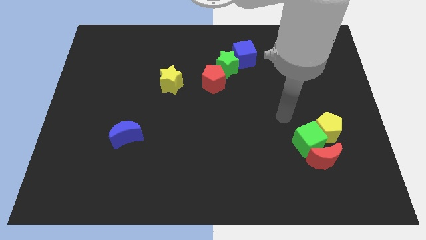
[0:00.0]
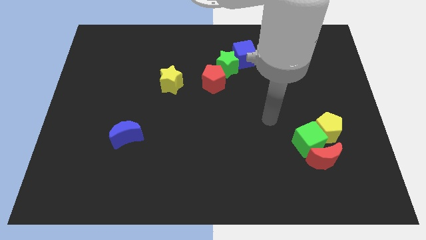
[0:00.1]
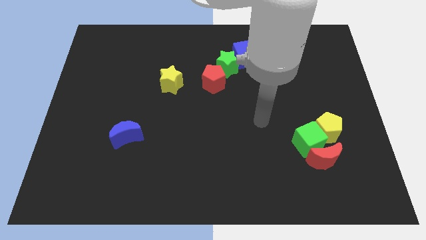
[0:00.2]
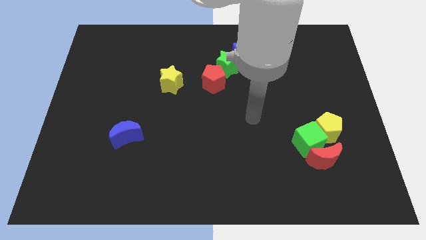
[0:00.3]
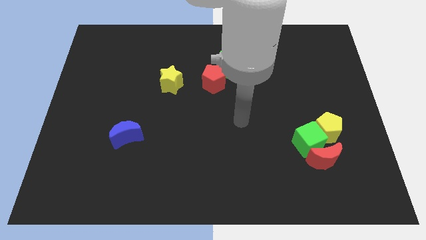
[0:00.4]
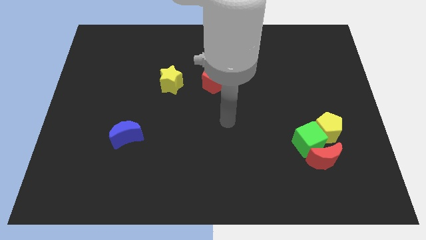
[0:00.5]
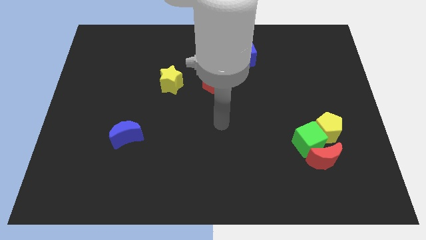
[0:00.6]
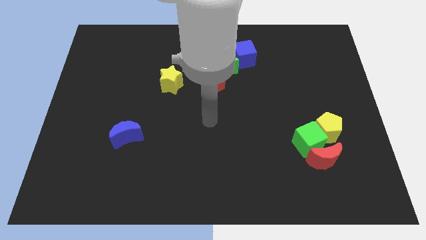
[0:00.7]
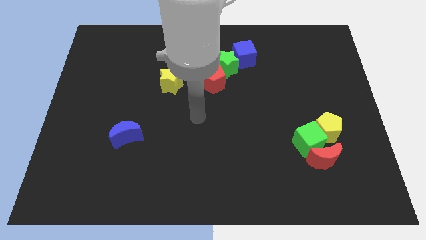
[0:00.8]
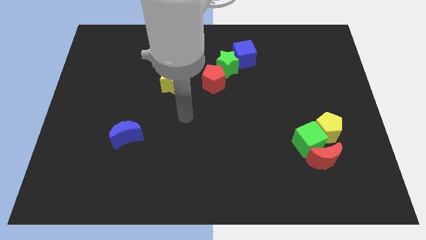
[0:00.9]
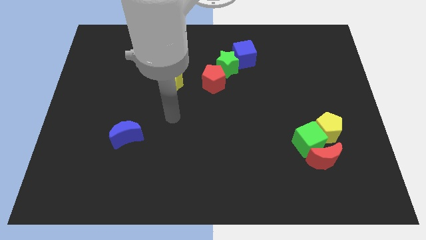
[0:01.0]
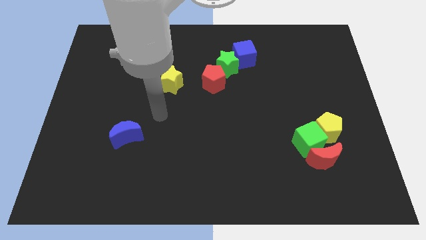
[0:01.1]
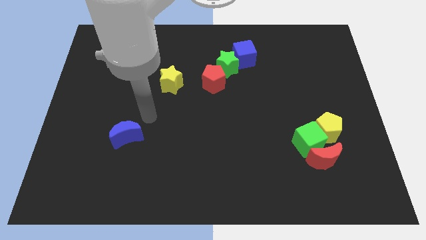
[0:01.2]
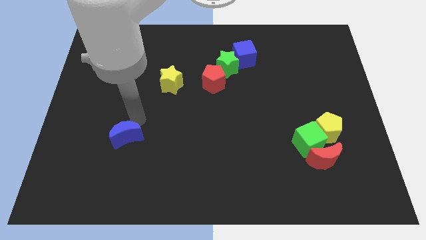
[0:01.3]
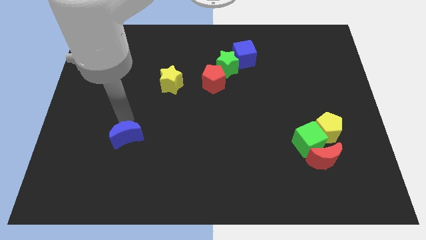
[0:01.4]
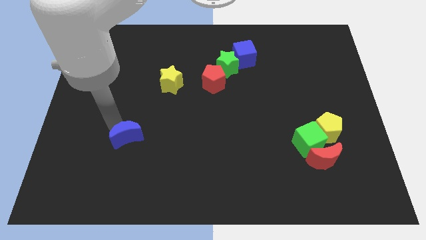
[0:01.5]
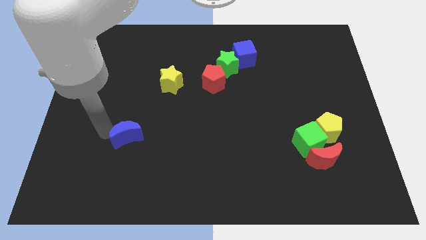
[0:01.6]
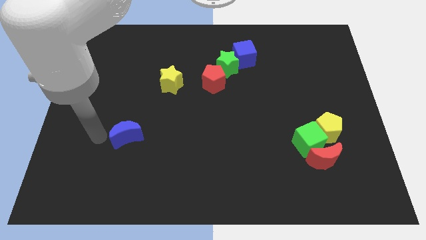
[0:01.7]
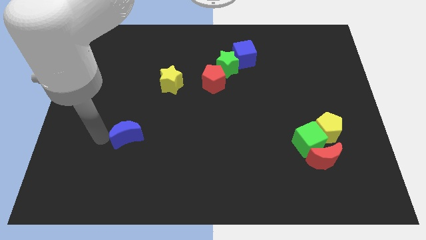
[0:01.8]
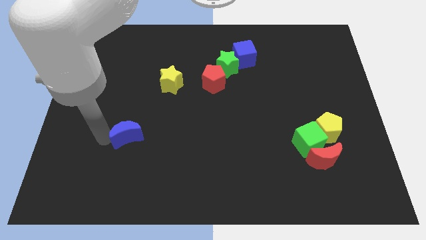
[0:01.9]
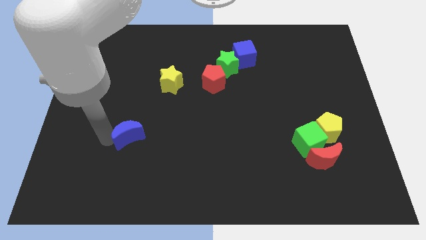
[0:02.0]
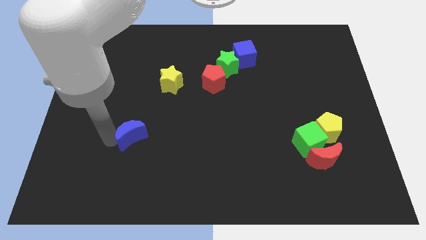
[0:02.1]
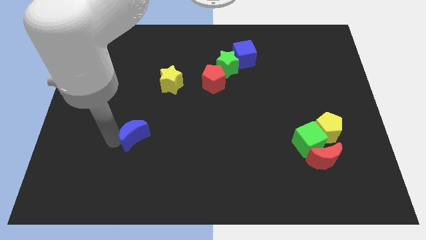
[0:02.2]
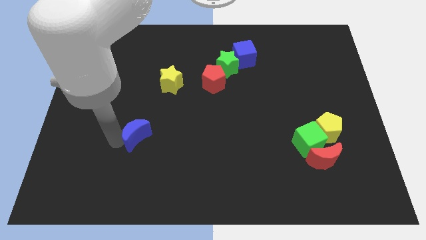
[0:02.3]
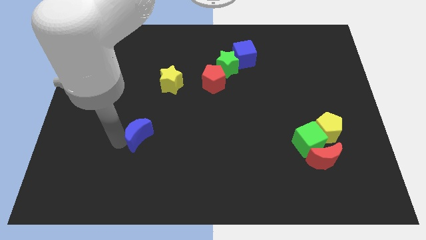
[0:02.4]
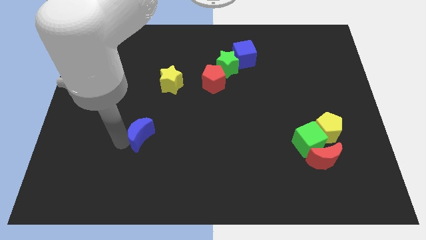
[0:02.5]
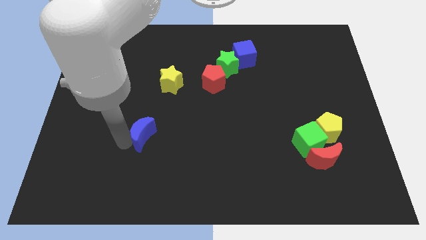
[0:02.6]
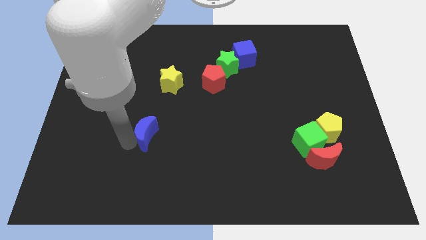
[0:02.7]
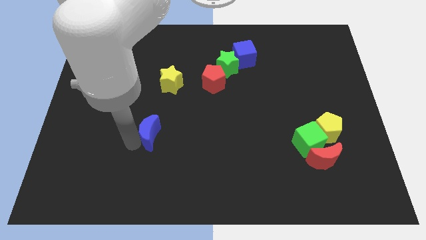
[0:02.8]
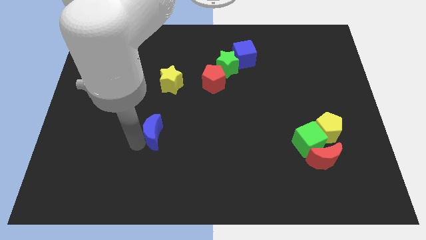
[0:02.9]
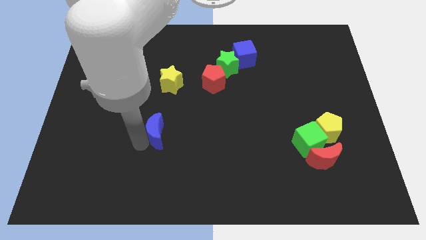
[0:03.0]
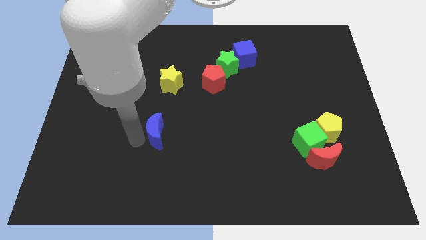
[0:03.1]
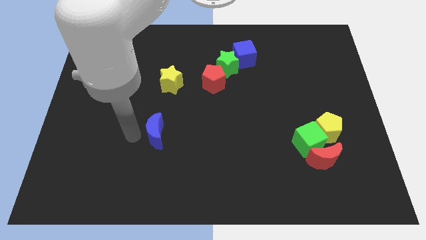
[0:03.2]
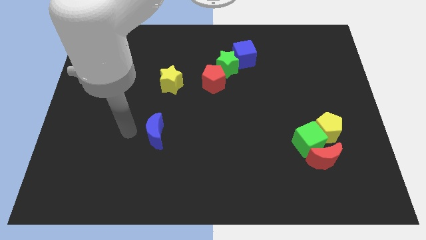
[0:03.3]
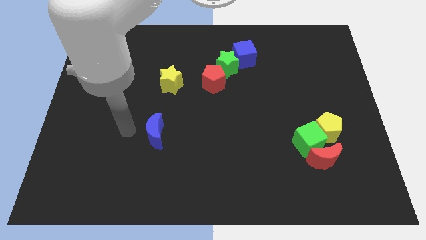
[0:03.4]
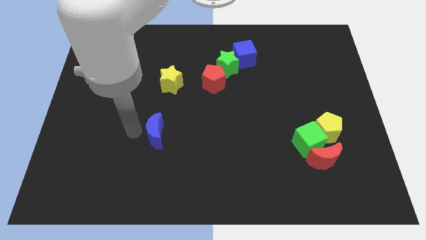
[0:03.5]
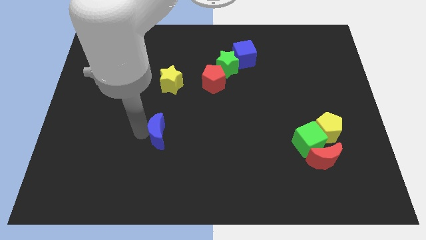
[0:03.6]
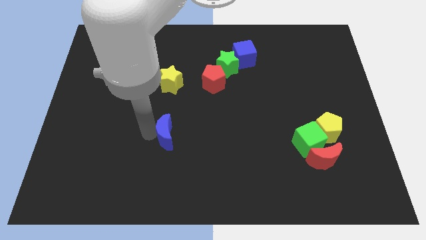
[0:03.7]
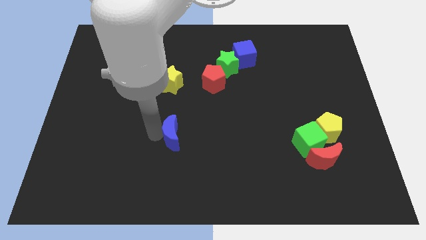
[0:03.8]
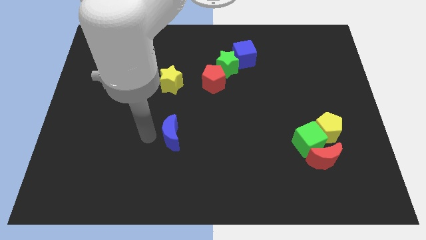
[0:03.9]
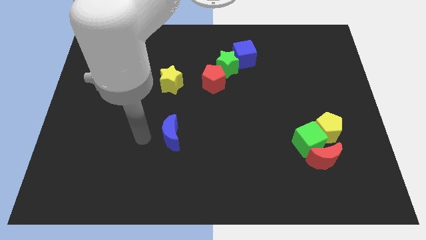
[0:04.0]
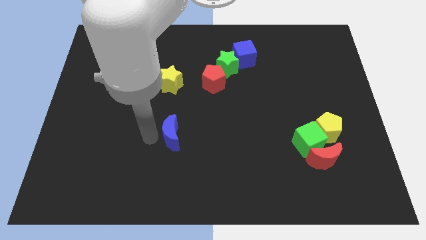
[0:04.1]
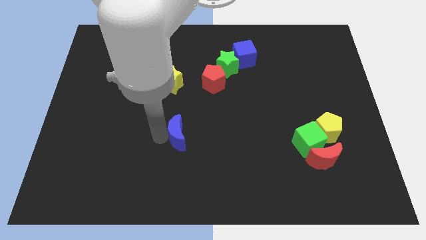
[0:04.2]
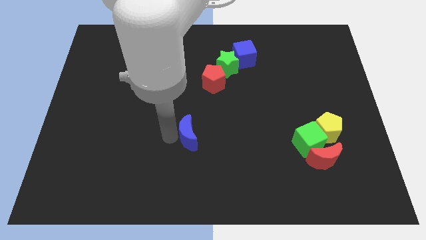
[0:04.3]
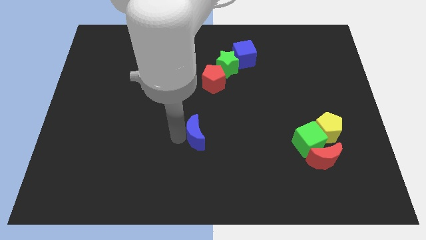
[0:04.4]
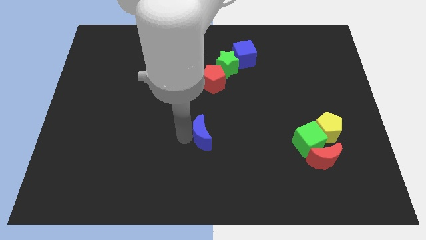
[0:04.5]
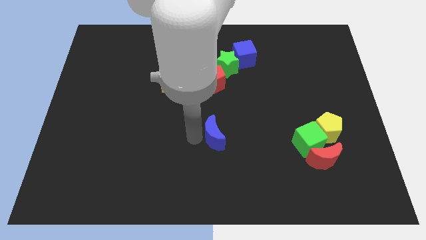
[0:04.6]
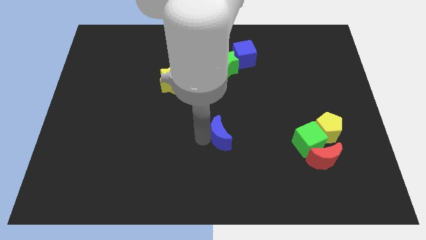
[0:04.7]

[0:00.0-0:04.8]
move the blue moon right

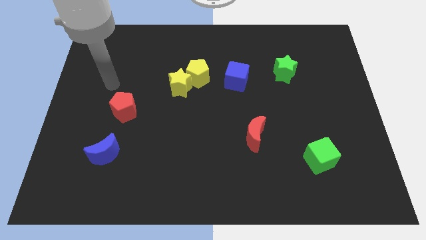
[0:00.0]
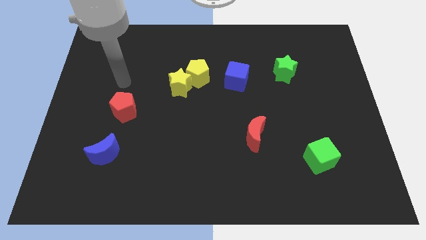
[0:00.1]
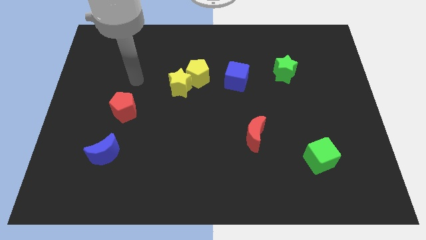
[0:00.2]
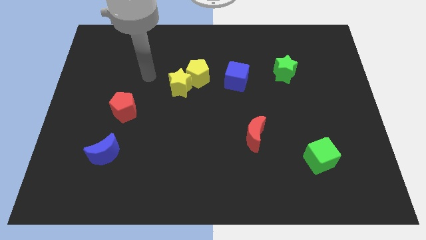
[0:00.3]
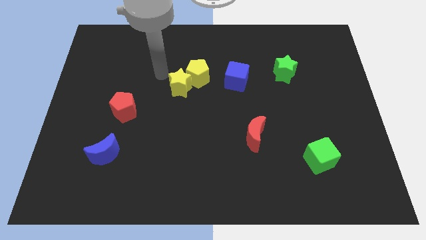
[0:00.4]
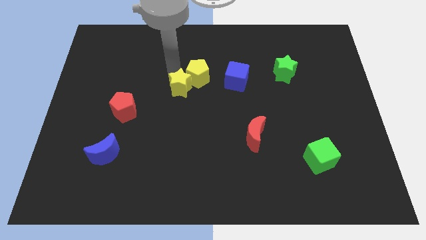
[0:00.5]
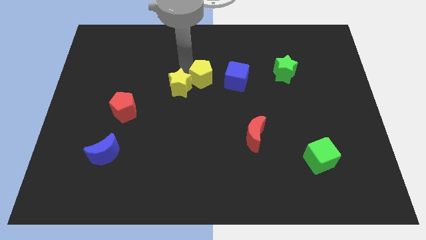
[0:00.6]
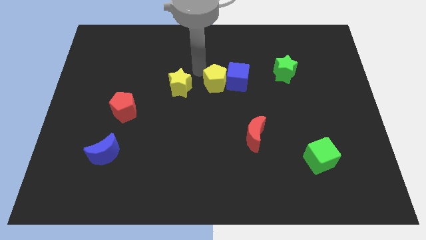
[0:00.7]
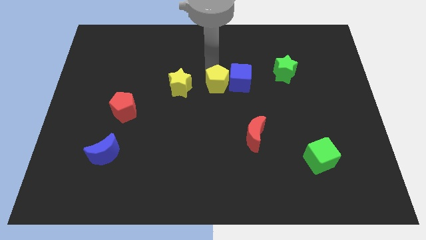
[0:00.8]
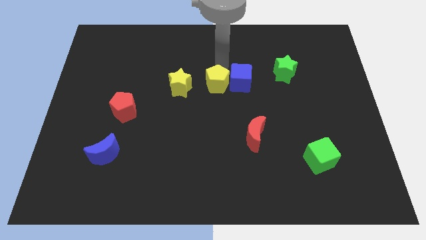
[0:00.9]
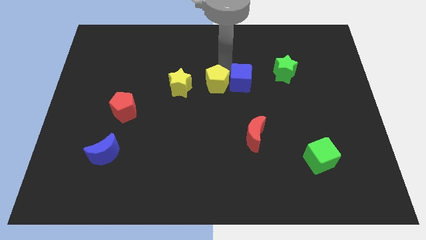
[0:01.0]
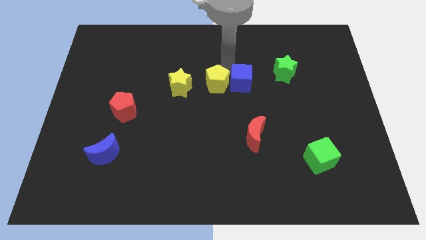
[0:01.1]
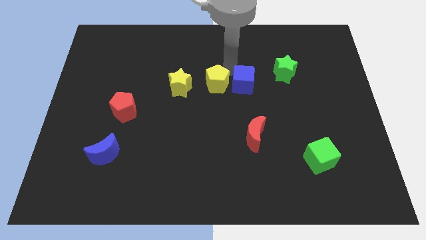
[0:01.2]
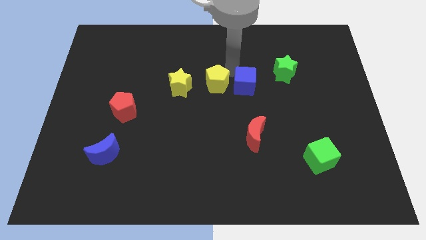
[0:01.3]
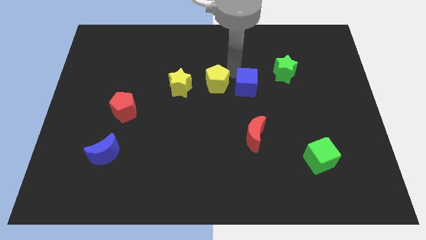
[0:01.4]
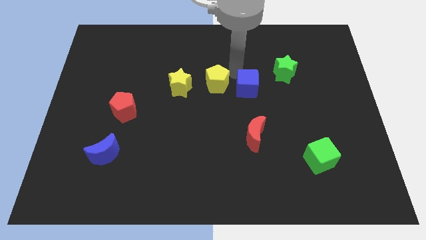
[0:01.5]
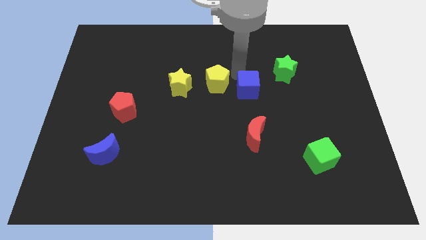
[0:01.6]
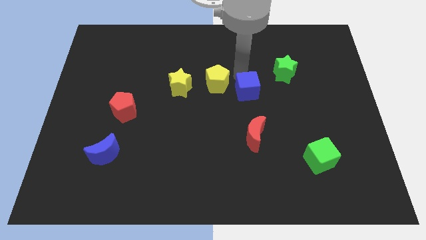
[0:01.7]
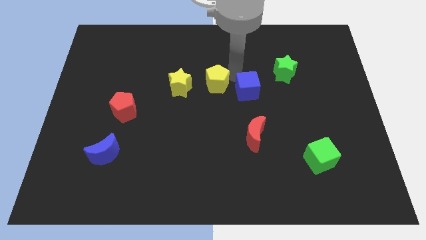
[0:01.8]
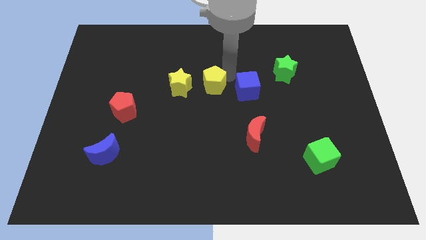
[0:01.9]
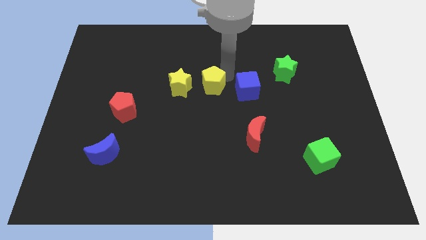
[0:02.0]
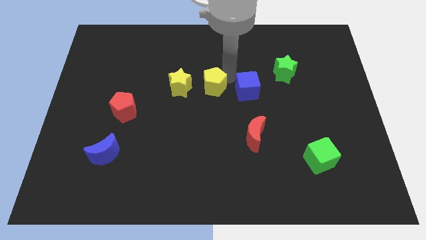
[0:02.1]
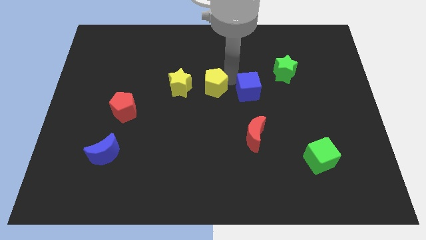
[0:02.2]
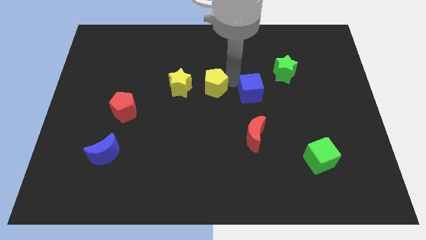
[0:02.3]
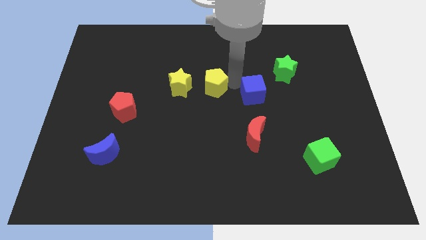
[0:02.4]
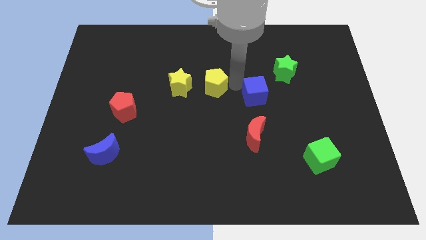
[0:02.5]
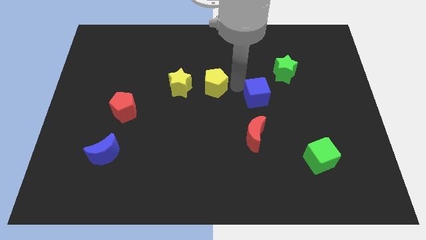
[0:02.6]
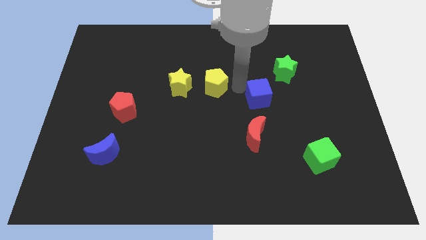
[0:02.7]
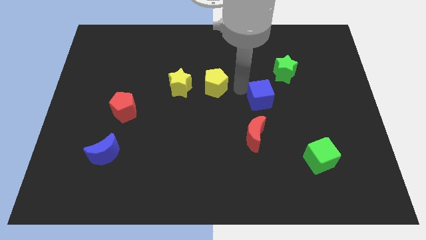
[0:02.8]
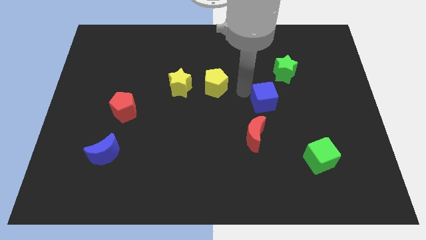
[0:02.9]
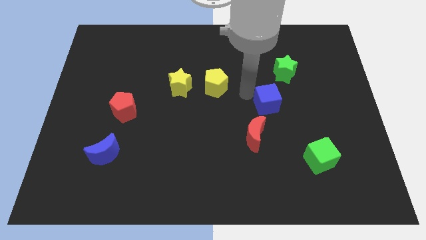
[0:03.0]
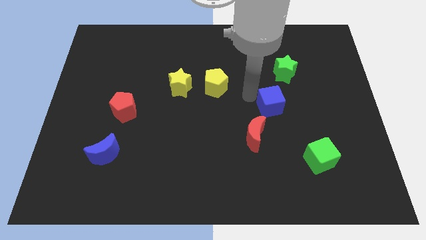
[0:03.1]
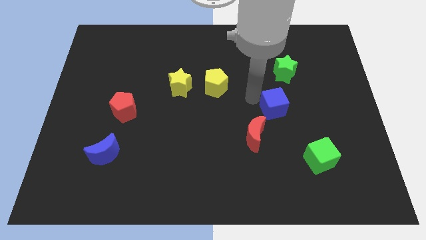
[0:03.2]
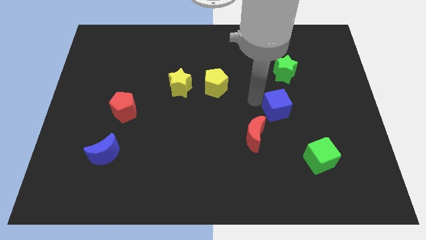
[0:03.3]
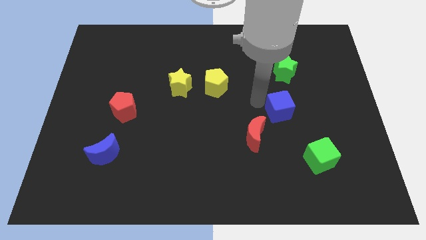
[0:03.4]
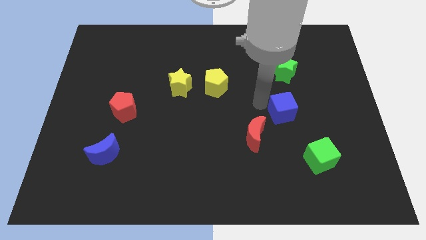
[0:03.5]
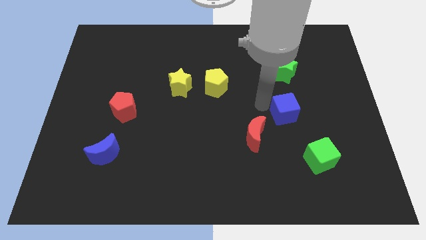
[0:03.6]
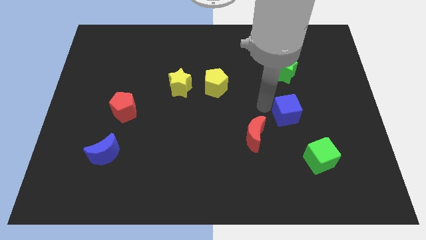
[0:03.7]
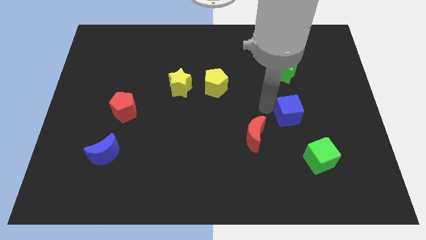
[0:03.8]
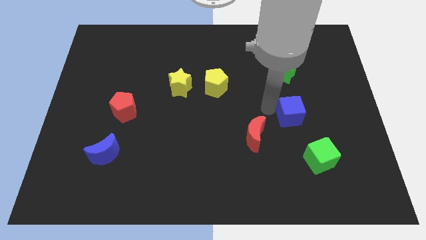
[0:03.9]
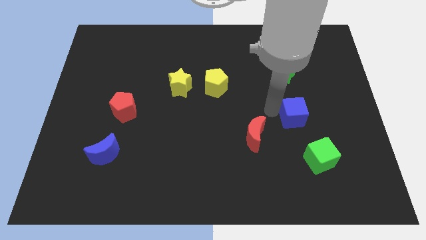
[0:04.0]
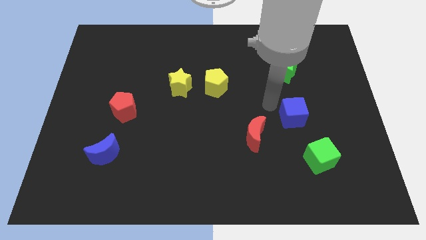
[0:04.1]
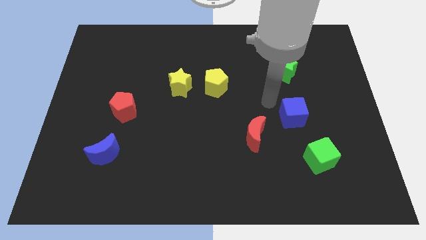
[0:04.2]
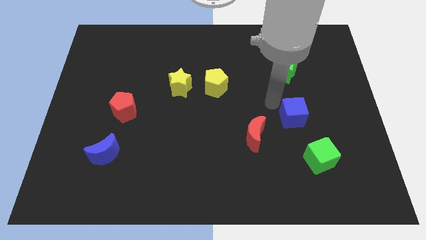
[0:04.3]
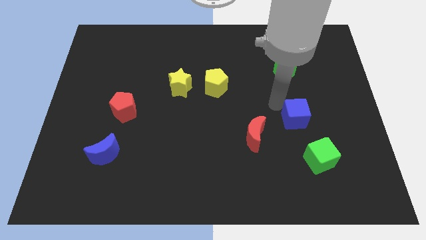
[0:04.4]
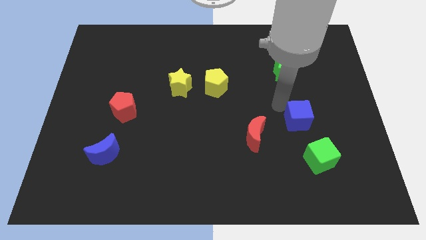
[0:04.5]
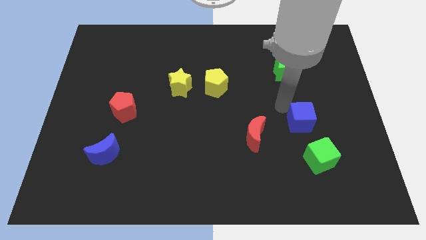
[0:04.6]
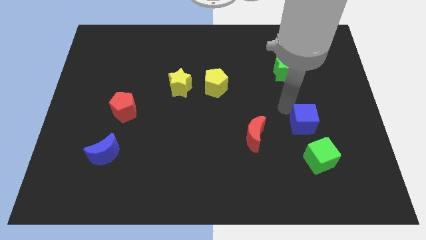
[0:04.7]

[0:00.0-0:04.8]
move the blue cube down and then right
